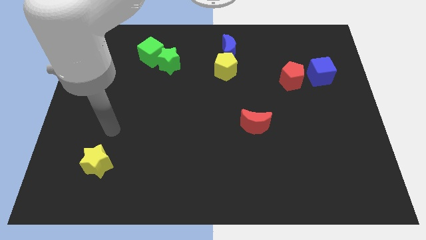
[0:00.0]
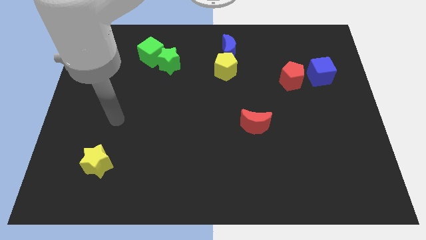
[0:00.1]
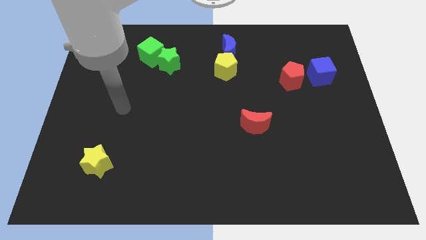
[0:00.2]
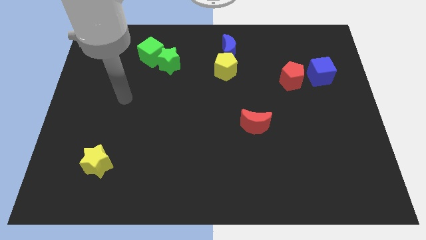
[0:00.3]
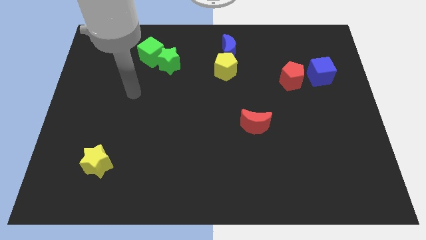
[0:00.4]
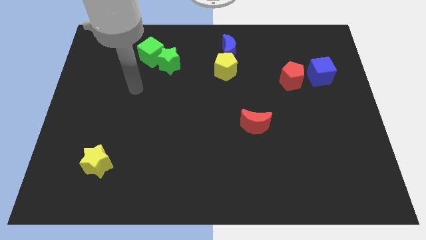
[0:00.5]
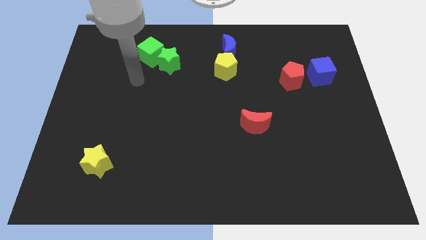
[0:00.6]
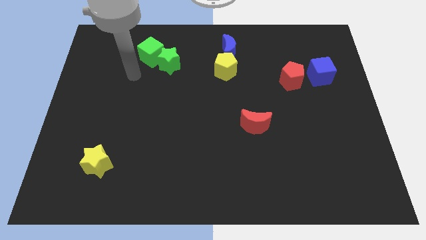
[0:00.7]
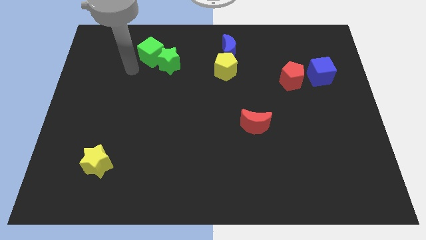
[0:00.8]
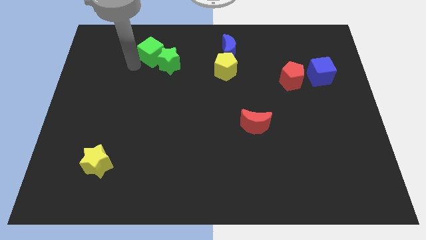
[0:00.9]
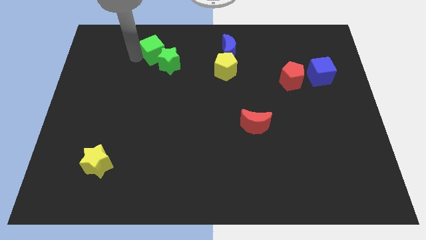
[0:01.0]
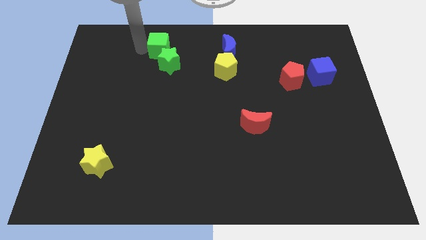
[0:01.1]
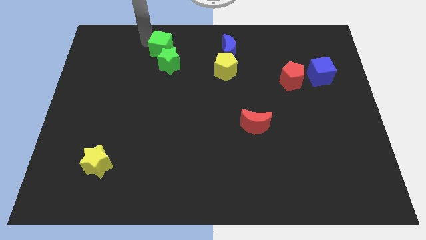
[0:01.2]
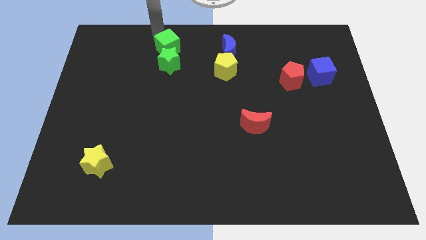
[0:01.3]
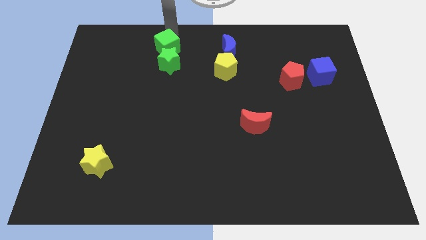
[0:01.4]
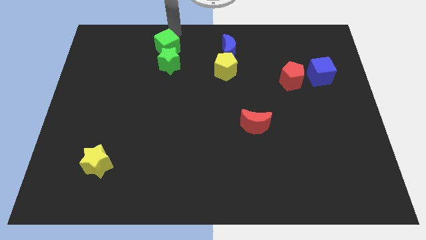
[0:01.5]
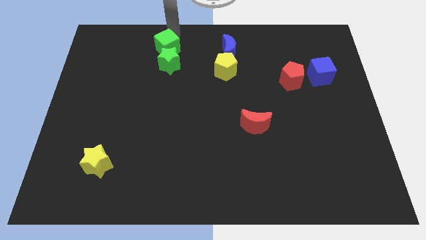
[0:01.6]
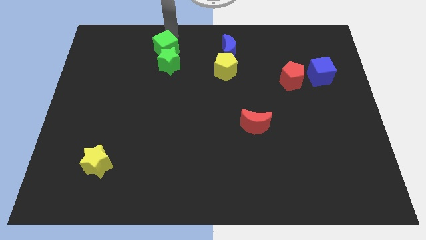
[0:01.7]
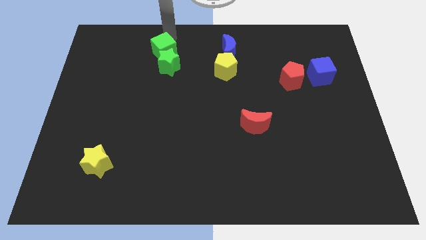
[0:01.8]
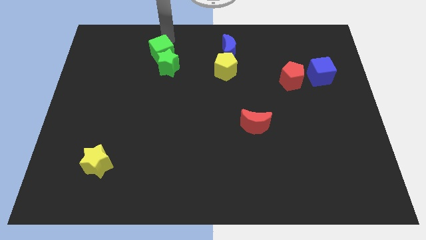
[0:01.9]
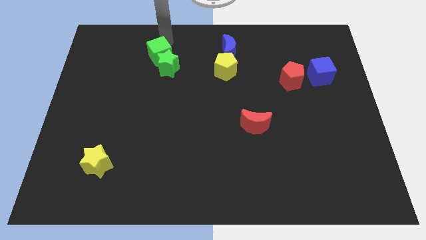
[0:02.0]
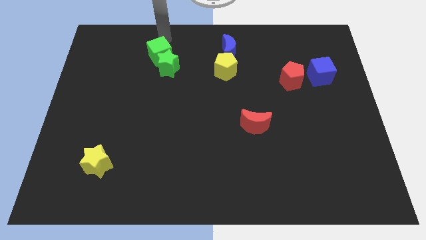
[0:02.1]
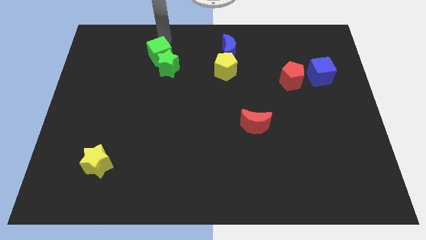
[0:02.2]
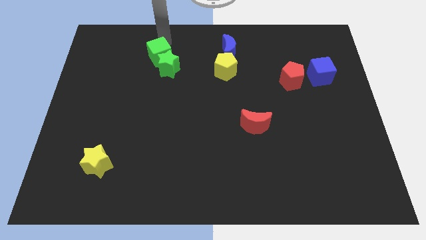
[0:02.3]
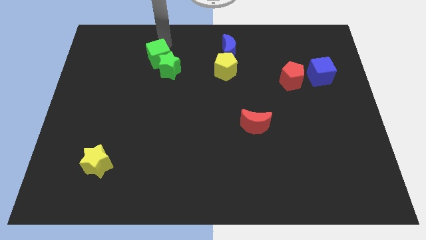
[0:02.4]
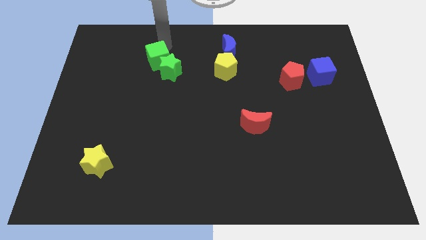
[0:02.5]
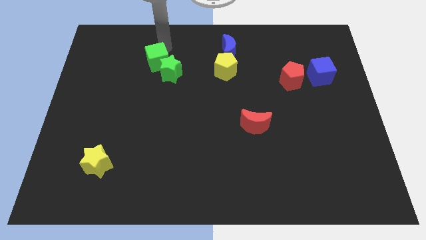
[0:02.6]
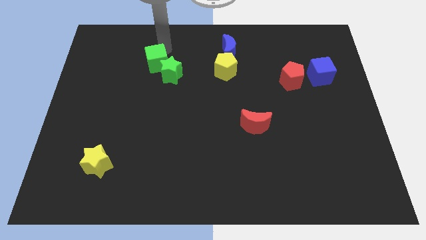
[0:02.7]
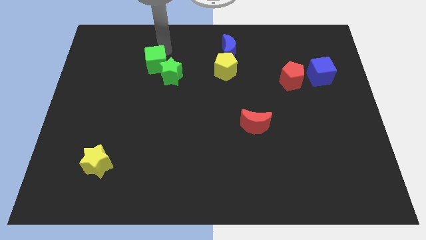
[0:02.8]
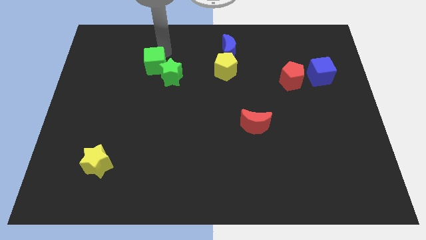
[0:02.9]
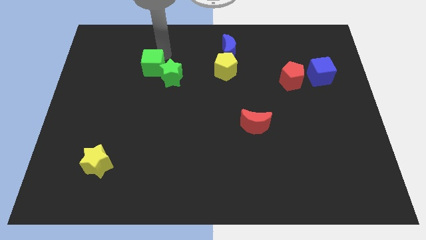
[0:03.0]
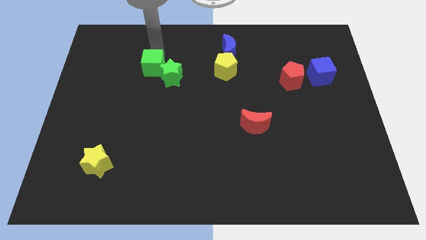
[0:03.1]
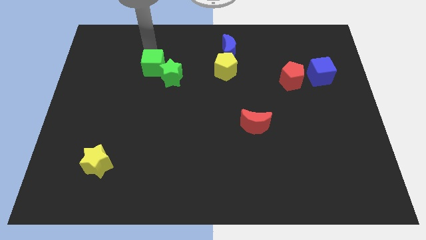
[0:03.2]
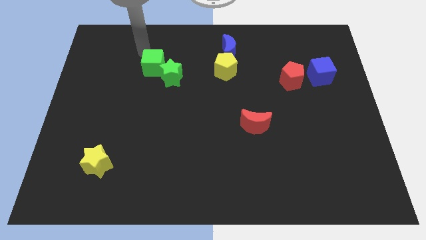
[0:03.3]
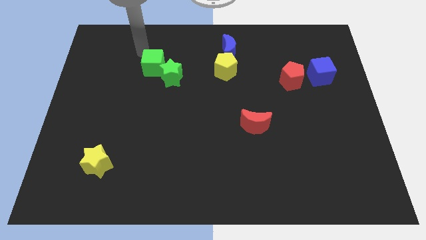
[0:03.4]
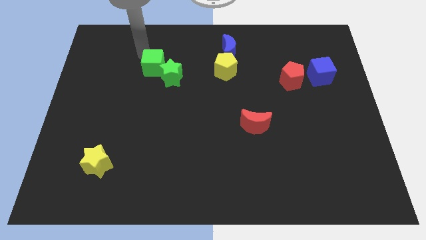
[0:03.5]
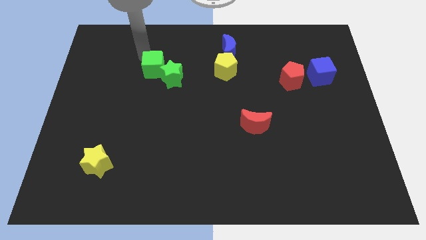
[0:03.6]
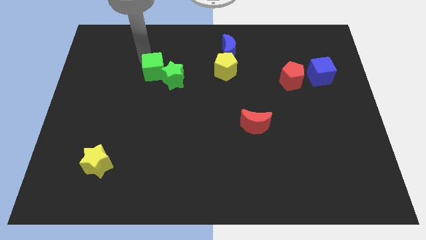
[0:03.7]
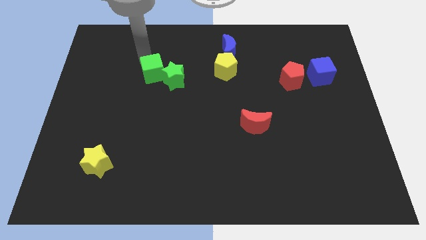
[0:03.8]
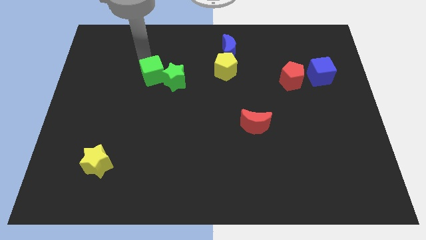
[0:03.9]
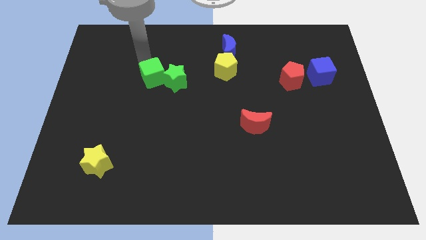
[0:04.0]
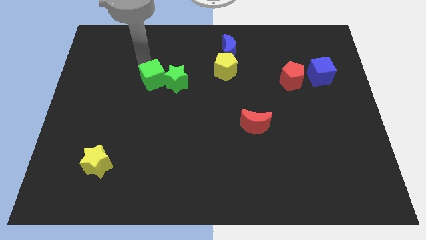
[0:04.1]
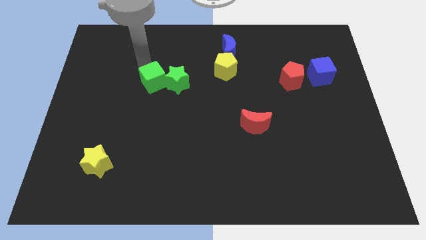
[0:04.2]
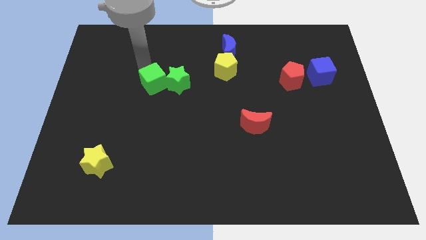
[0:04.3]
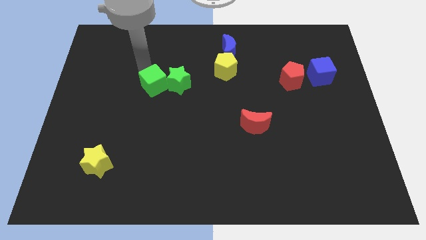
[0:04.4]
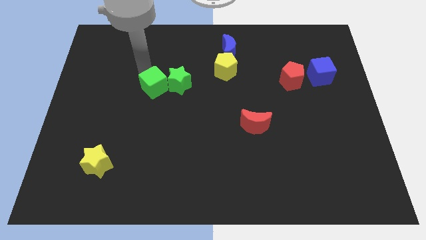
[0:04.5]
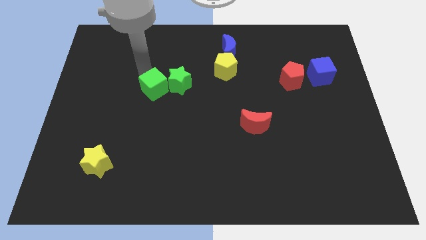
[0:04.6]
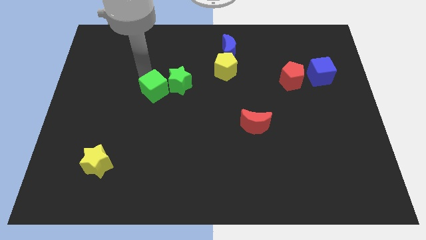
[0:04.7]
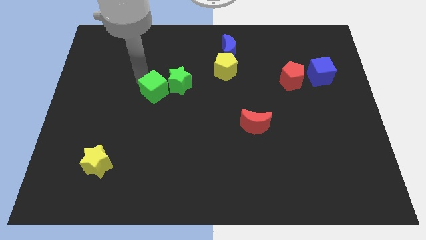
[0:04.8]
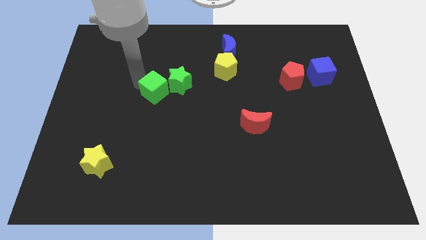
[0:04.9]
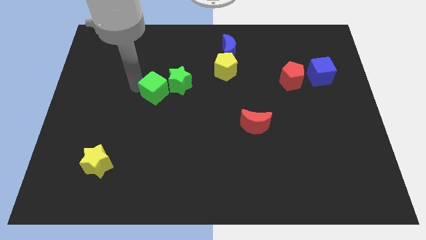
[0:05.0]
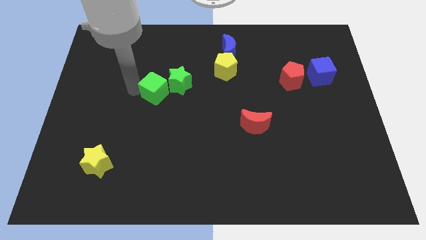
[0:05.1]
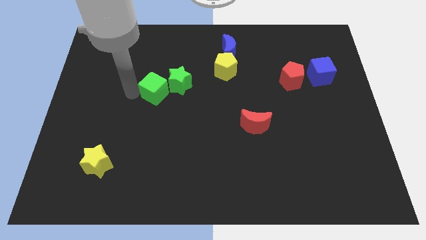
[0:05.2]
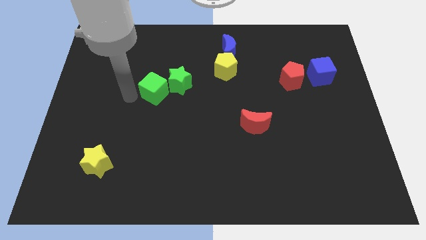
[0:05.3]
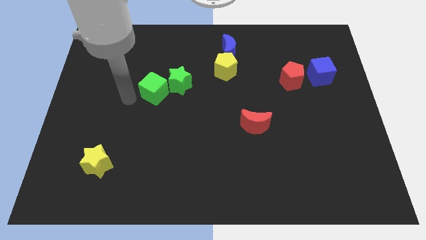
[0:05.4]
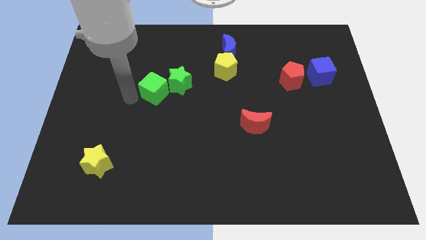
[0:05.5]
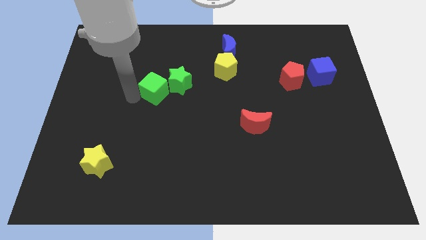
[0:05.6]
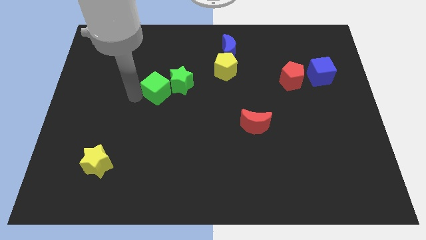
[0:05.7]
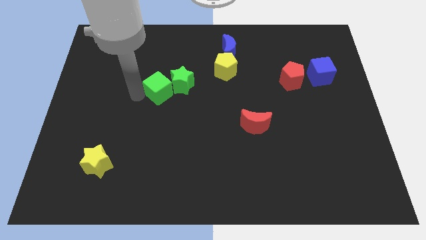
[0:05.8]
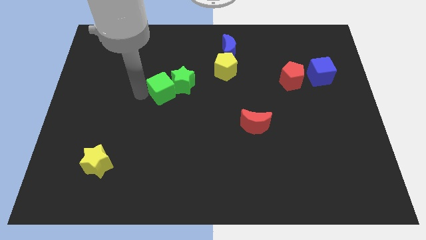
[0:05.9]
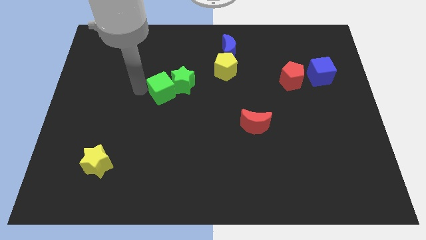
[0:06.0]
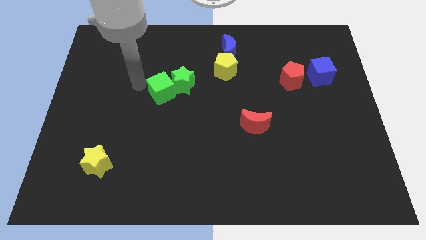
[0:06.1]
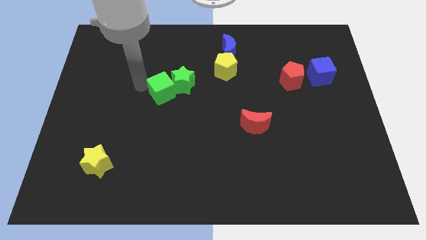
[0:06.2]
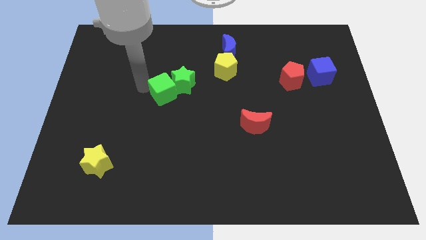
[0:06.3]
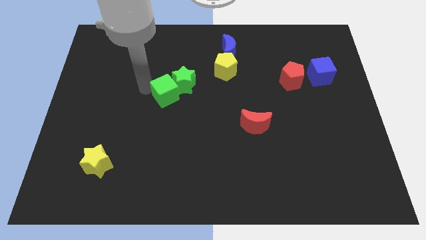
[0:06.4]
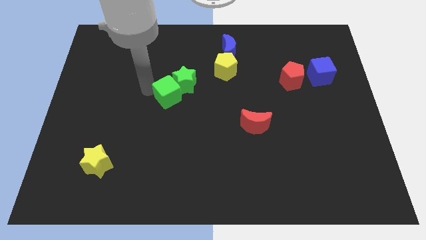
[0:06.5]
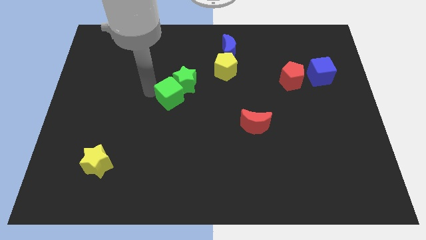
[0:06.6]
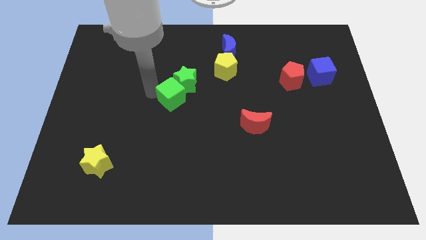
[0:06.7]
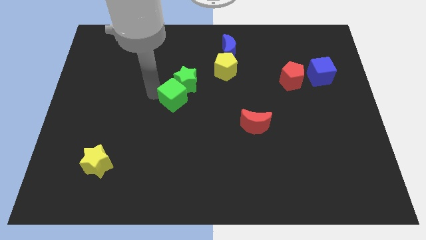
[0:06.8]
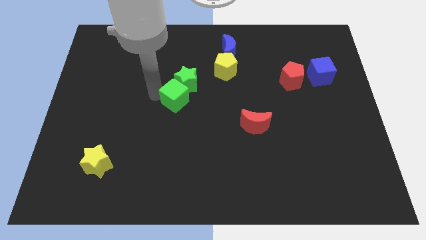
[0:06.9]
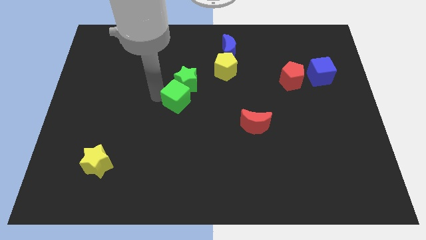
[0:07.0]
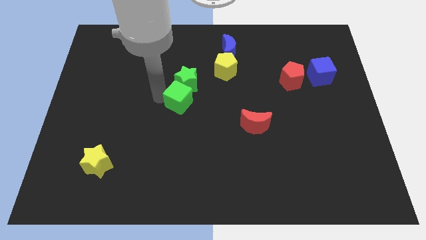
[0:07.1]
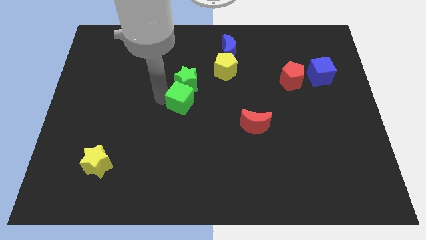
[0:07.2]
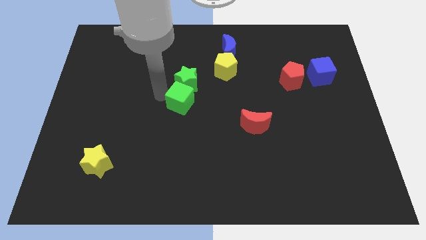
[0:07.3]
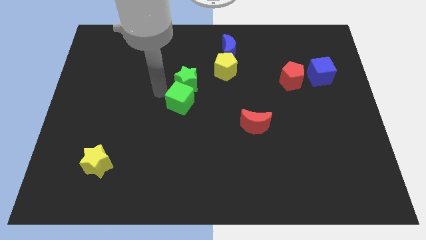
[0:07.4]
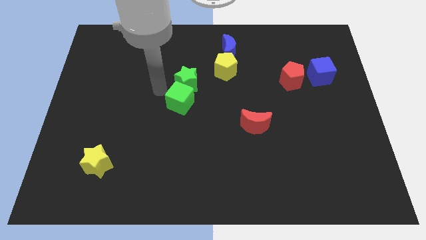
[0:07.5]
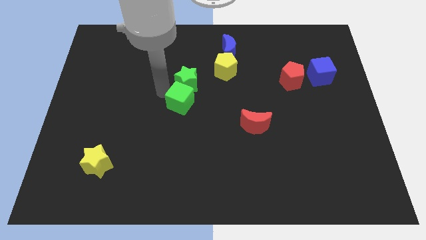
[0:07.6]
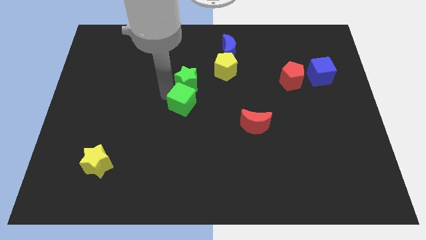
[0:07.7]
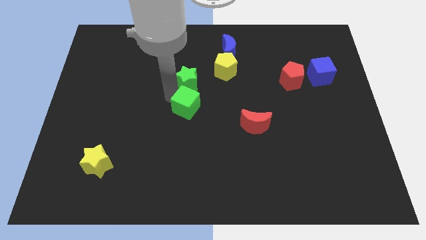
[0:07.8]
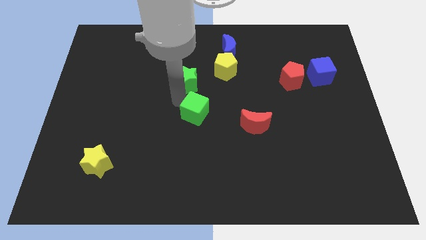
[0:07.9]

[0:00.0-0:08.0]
move the green cube left of the red moon

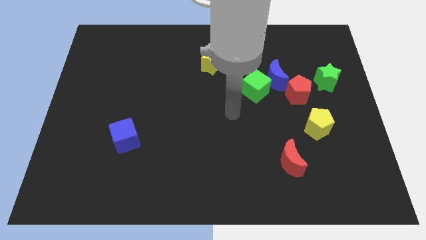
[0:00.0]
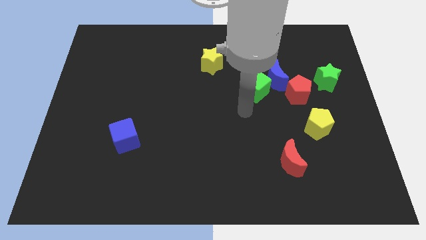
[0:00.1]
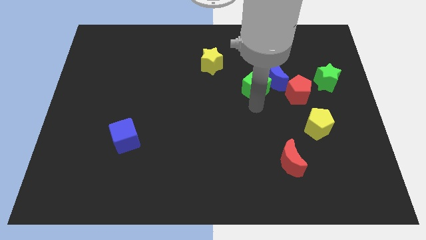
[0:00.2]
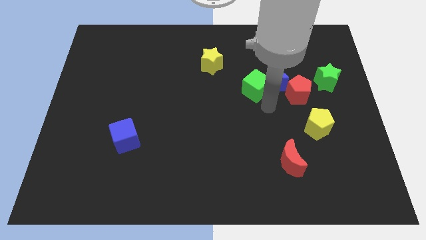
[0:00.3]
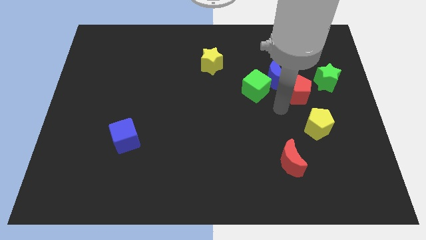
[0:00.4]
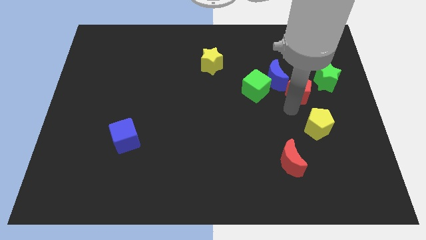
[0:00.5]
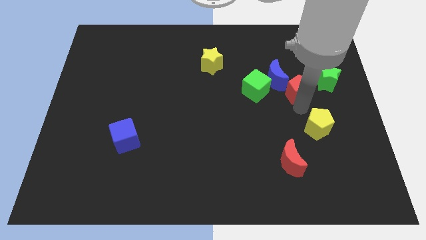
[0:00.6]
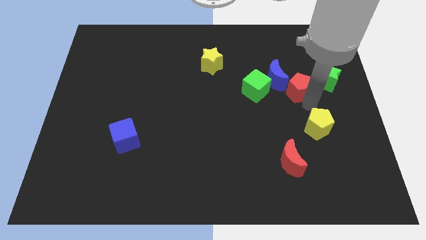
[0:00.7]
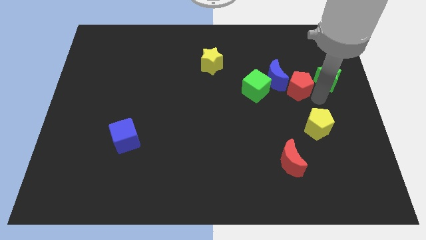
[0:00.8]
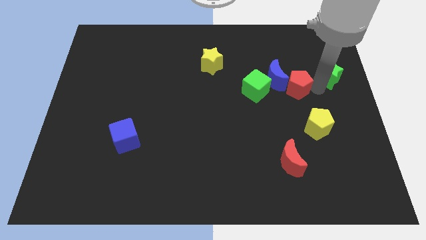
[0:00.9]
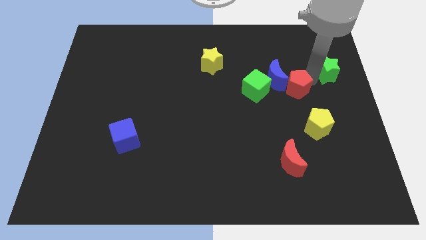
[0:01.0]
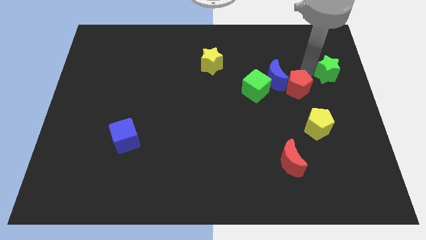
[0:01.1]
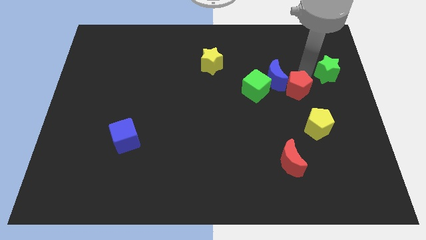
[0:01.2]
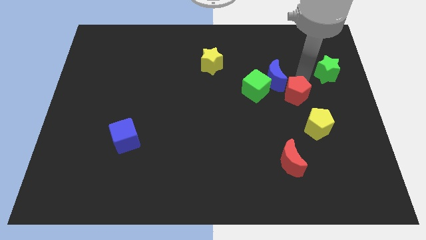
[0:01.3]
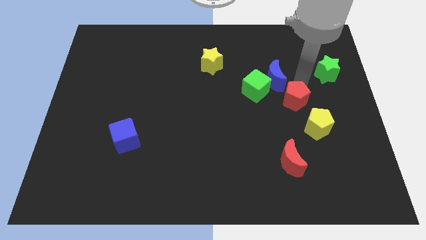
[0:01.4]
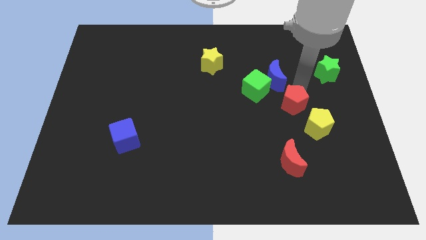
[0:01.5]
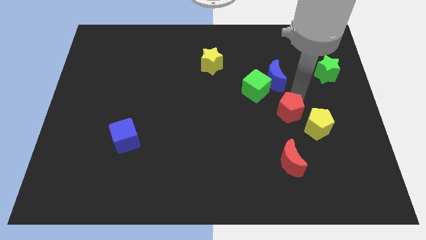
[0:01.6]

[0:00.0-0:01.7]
move the red pentagon left of the yellow pentagon
